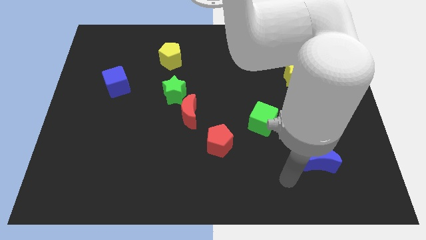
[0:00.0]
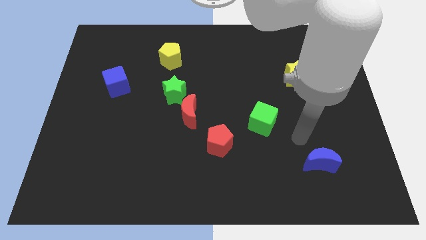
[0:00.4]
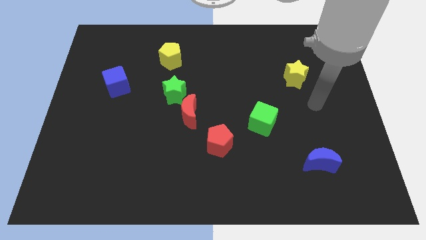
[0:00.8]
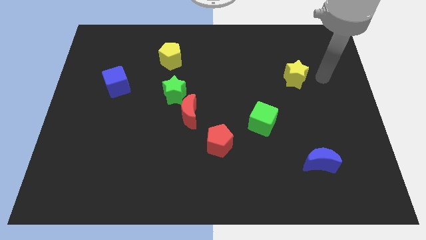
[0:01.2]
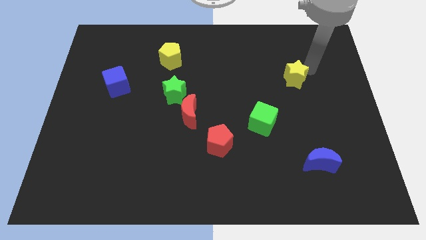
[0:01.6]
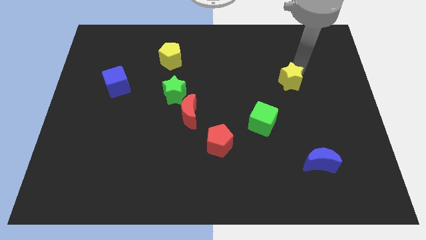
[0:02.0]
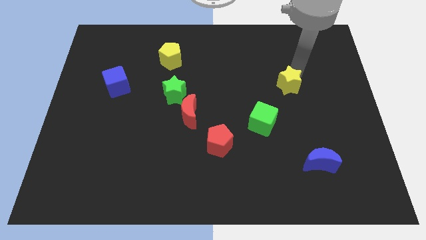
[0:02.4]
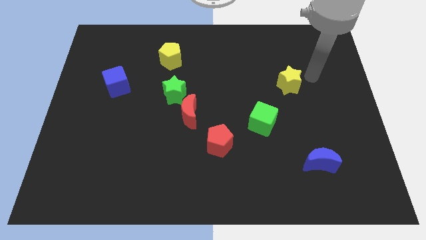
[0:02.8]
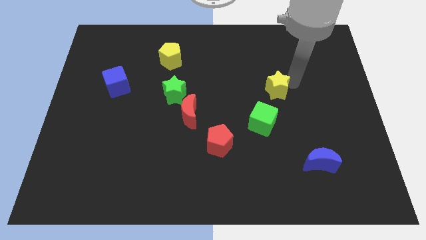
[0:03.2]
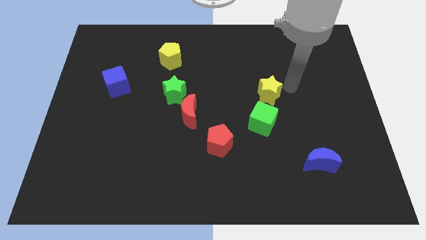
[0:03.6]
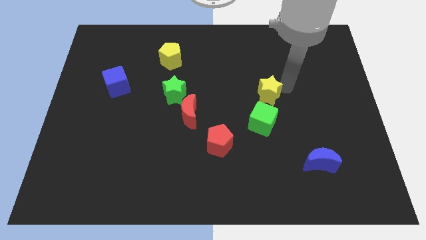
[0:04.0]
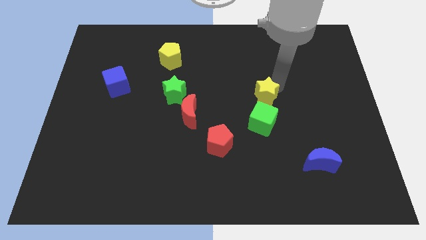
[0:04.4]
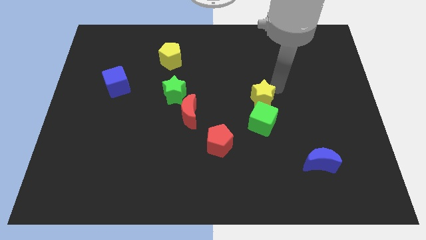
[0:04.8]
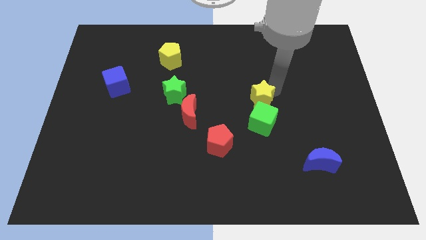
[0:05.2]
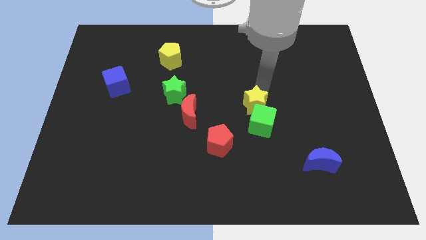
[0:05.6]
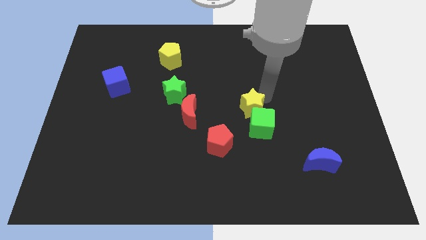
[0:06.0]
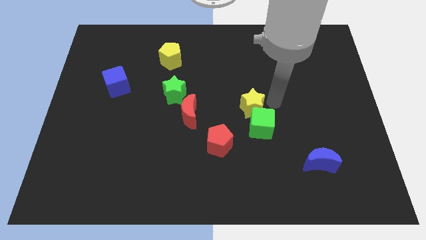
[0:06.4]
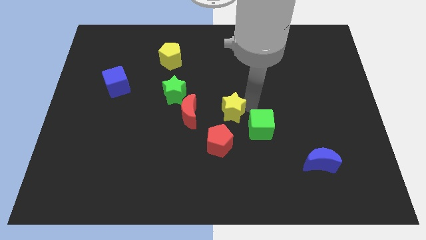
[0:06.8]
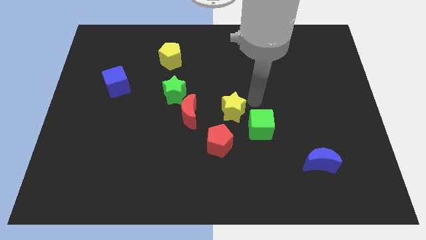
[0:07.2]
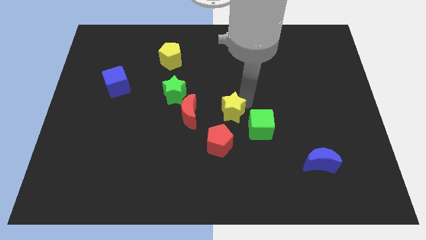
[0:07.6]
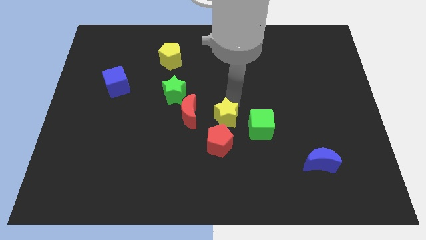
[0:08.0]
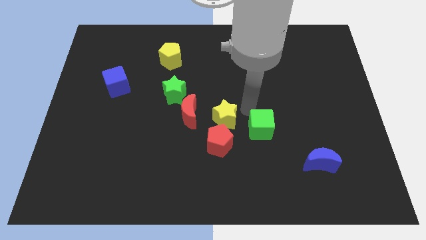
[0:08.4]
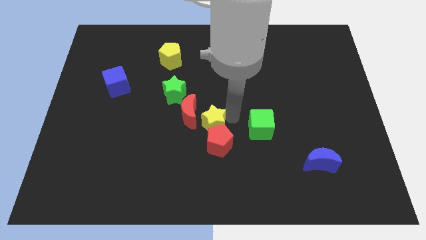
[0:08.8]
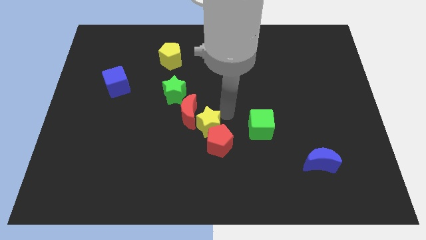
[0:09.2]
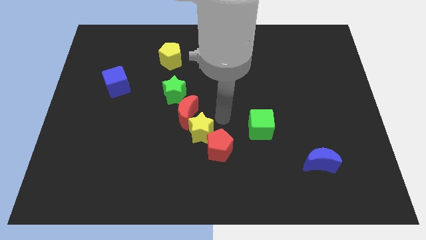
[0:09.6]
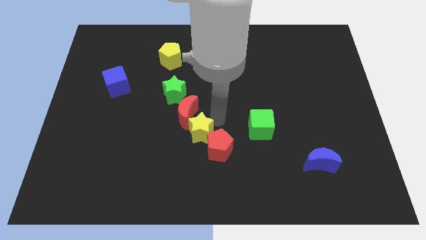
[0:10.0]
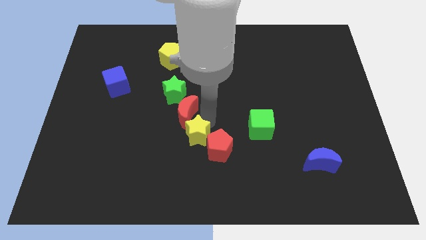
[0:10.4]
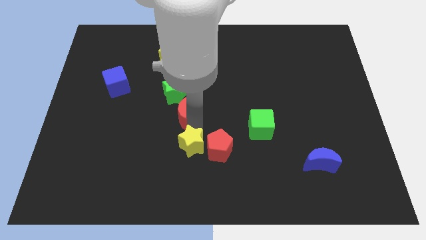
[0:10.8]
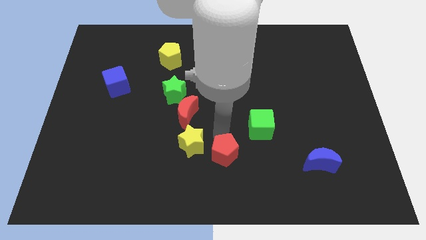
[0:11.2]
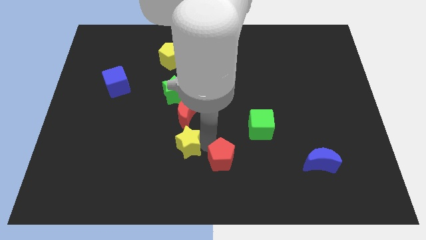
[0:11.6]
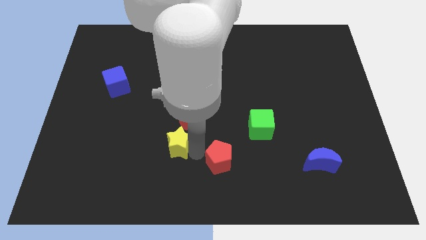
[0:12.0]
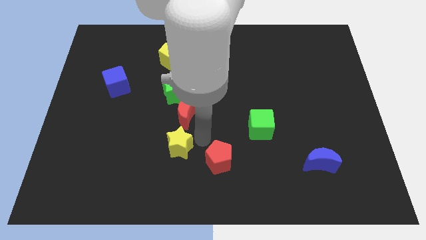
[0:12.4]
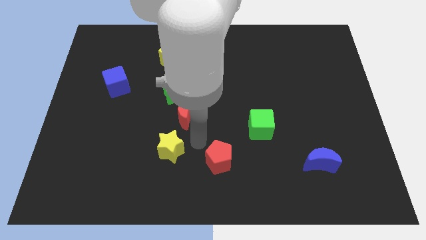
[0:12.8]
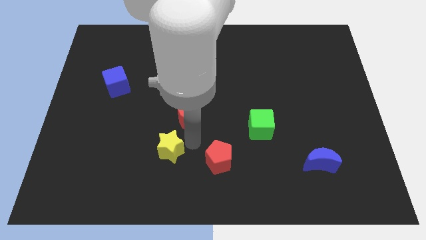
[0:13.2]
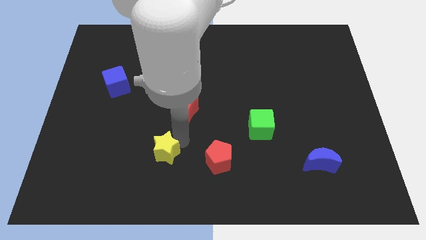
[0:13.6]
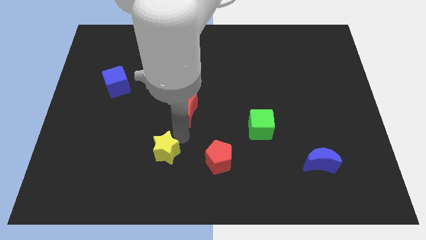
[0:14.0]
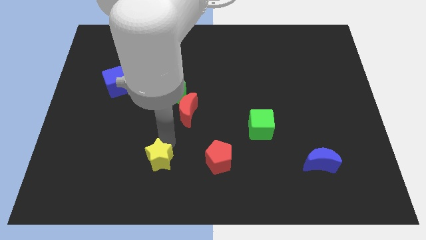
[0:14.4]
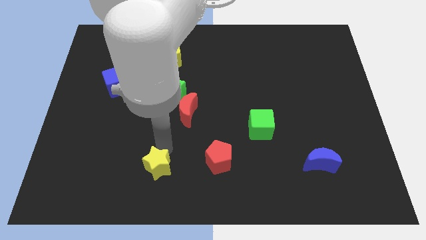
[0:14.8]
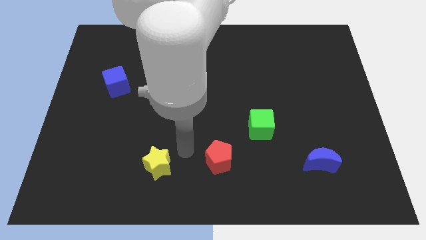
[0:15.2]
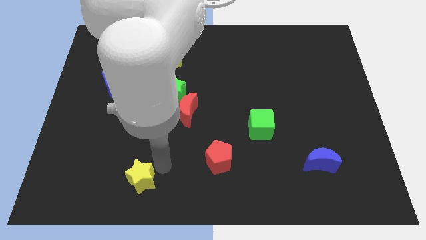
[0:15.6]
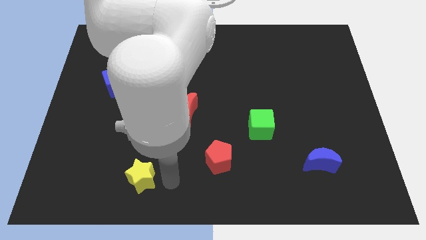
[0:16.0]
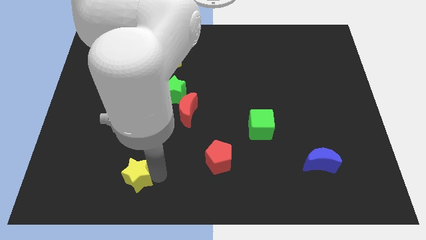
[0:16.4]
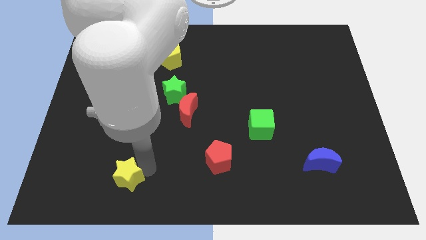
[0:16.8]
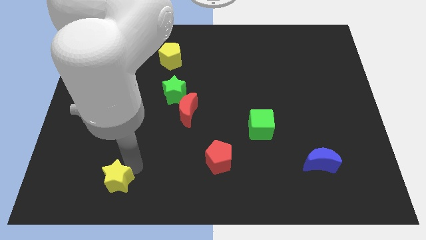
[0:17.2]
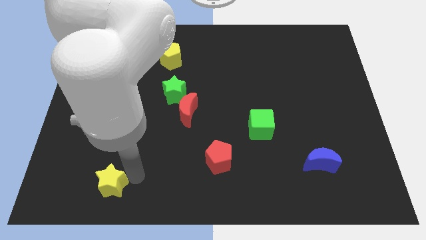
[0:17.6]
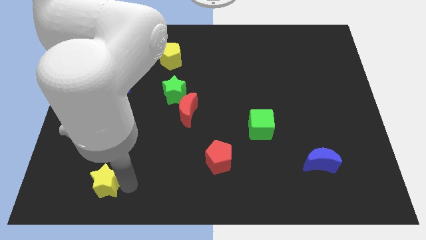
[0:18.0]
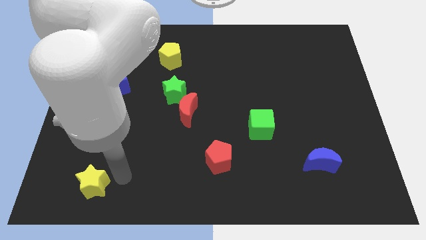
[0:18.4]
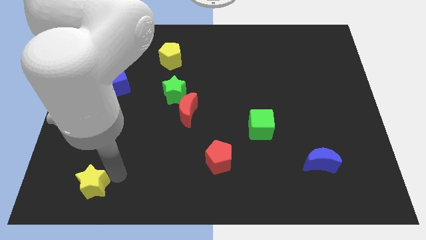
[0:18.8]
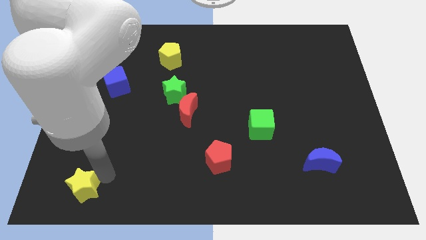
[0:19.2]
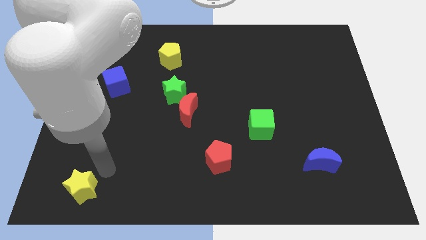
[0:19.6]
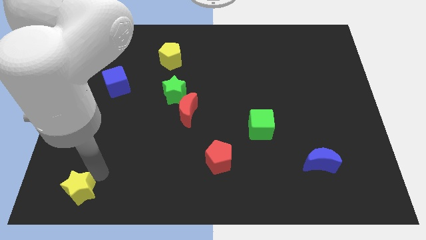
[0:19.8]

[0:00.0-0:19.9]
slide the yellow star to the lower left corner

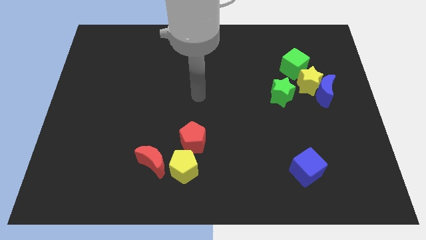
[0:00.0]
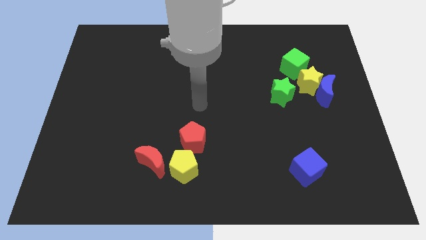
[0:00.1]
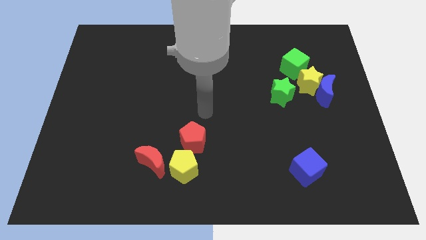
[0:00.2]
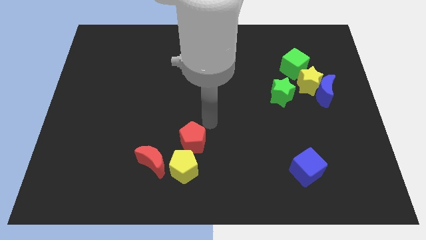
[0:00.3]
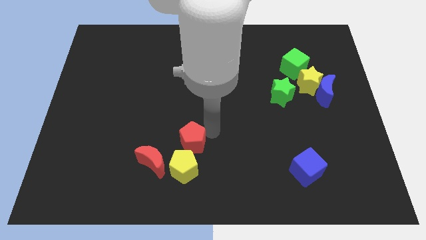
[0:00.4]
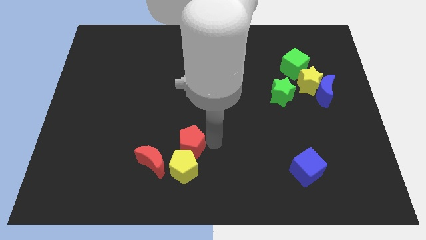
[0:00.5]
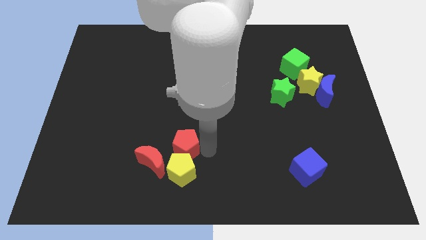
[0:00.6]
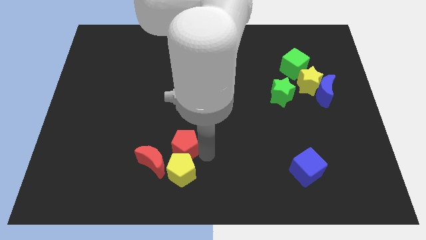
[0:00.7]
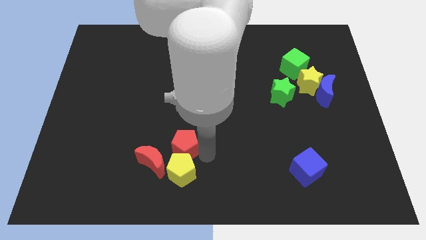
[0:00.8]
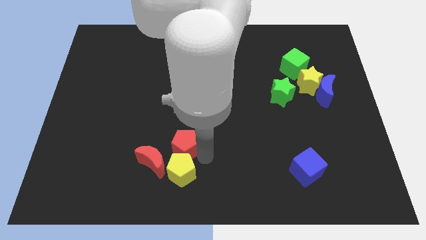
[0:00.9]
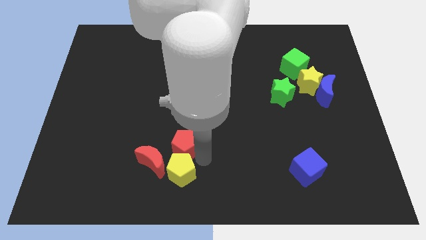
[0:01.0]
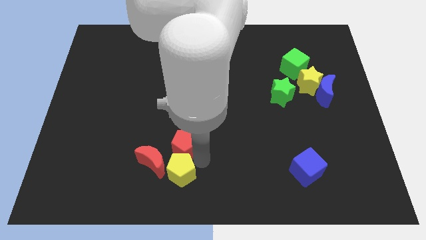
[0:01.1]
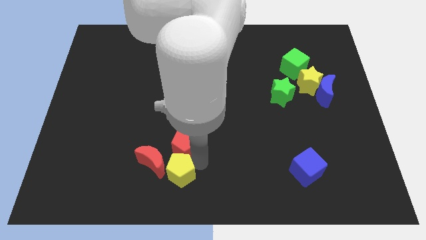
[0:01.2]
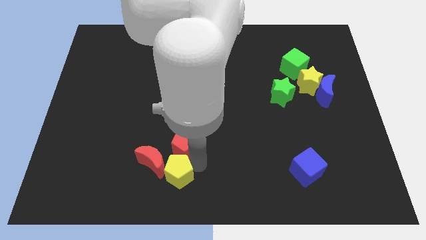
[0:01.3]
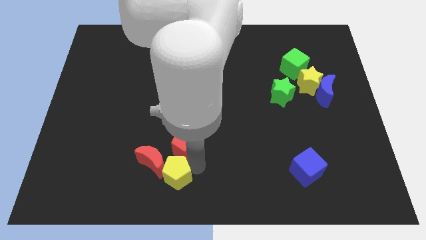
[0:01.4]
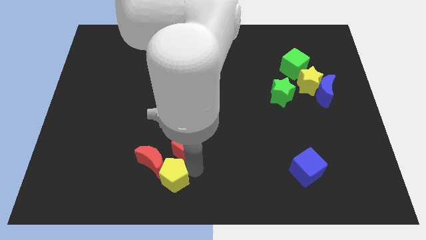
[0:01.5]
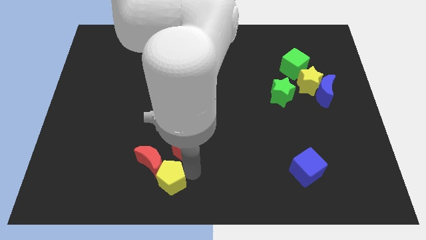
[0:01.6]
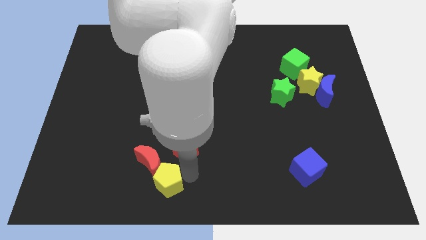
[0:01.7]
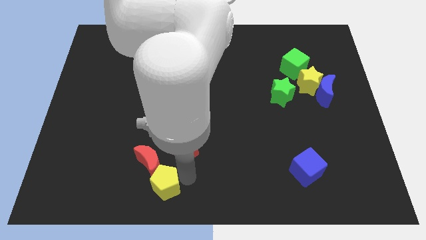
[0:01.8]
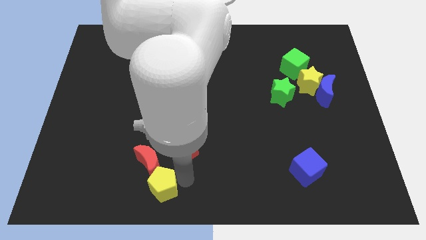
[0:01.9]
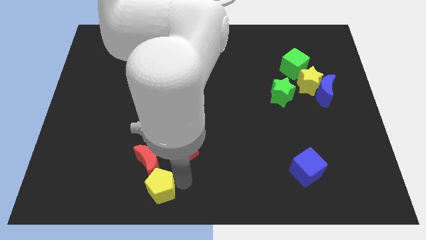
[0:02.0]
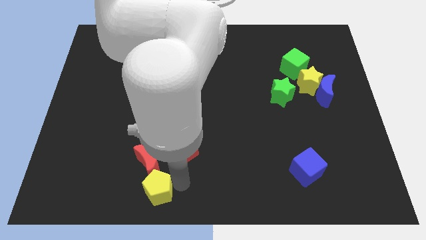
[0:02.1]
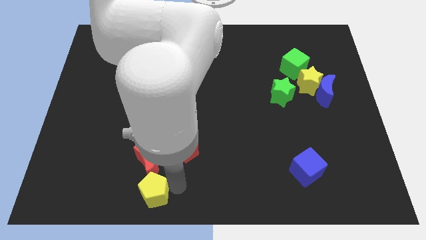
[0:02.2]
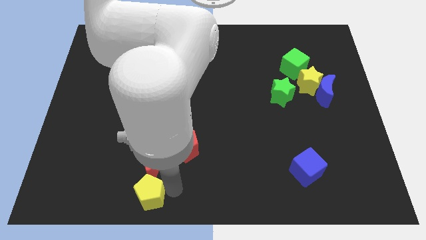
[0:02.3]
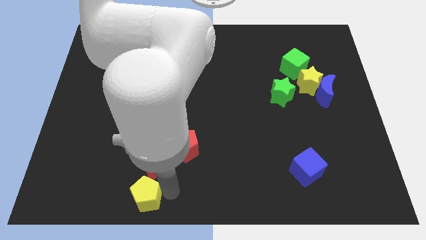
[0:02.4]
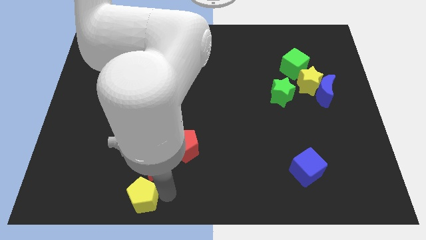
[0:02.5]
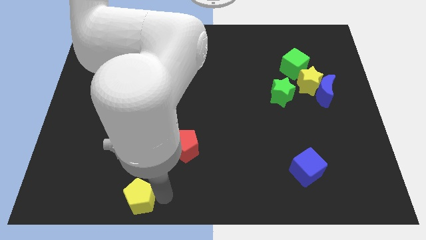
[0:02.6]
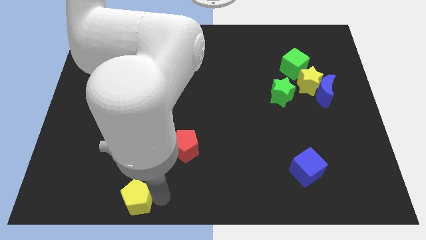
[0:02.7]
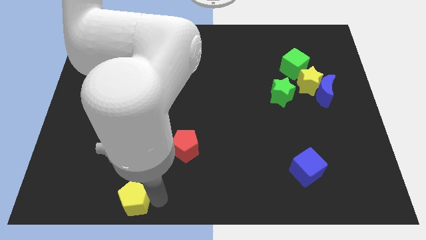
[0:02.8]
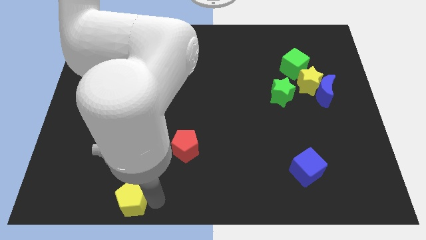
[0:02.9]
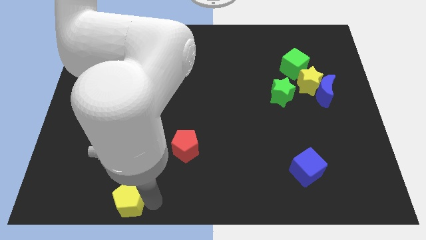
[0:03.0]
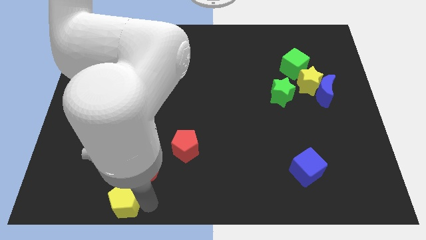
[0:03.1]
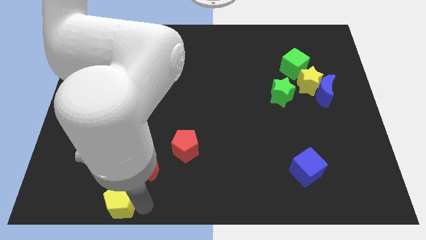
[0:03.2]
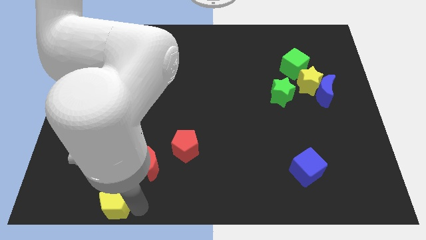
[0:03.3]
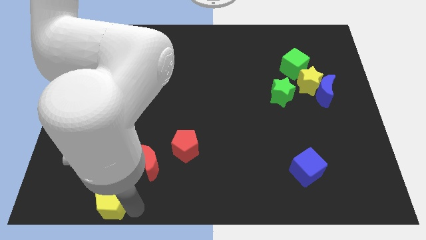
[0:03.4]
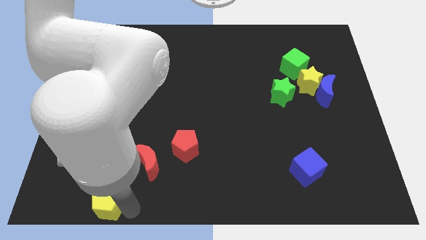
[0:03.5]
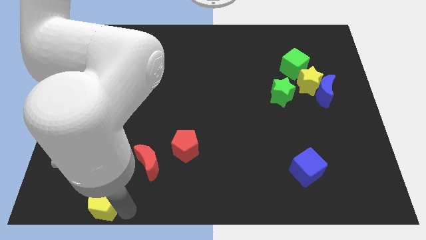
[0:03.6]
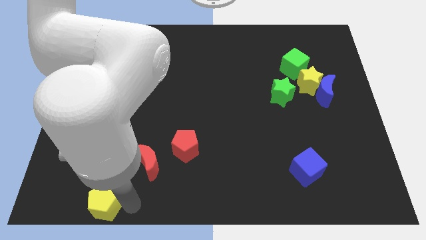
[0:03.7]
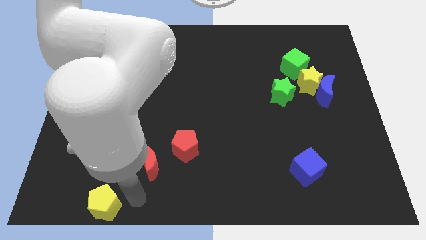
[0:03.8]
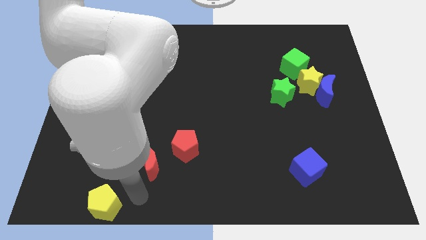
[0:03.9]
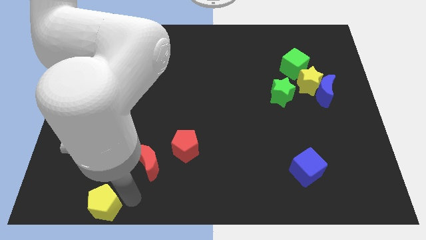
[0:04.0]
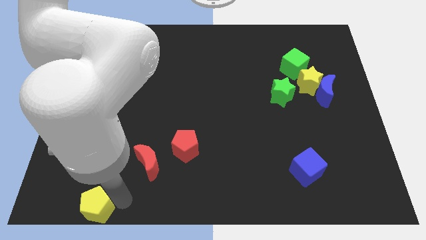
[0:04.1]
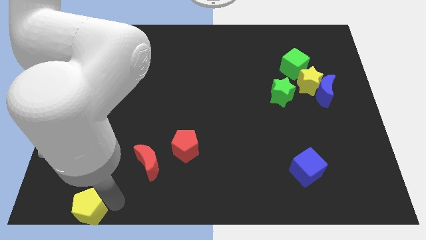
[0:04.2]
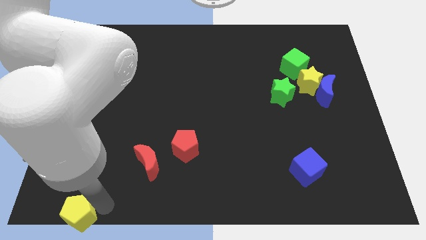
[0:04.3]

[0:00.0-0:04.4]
slide the yellow pentagon to the bottom left
